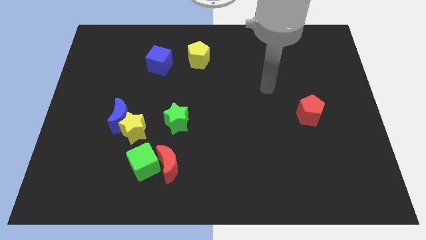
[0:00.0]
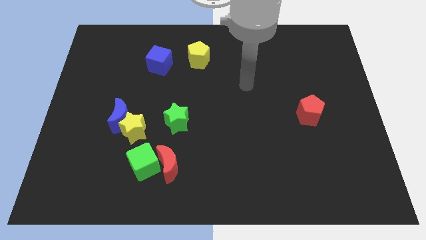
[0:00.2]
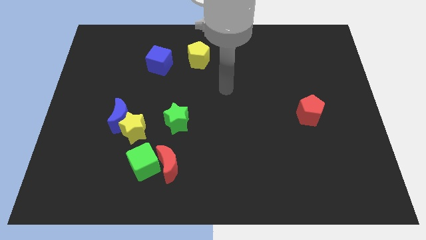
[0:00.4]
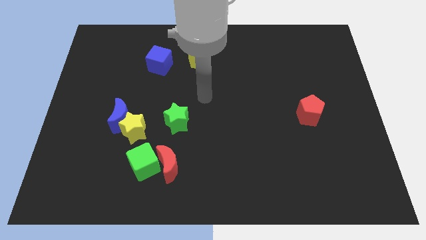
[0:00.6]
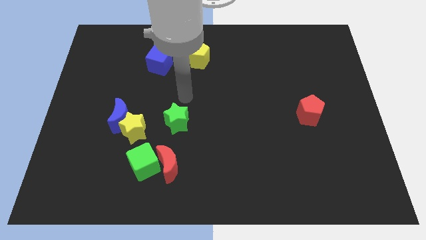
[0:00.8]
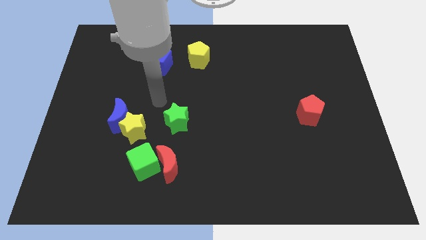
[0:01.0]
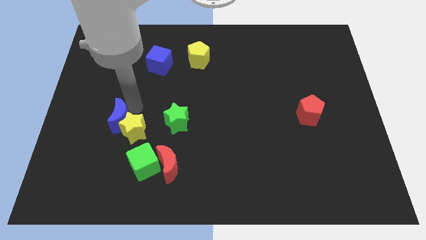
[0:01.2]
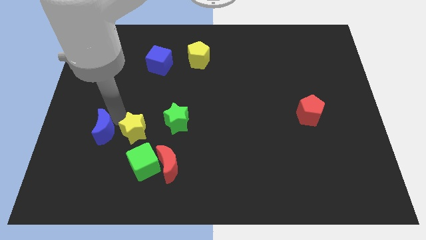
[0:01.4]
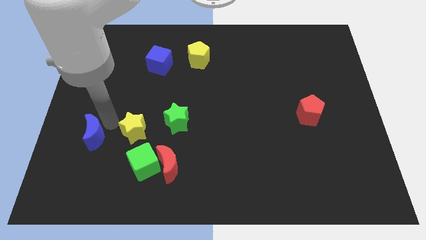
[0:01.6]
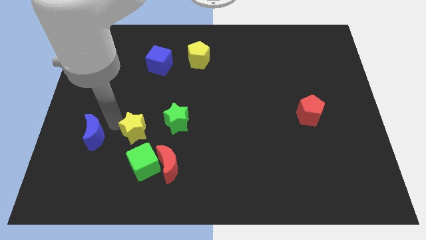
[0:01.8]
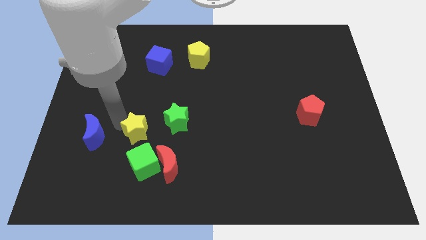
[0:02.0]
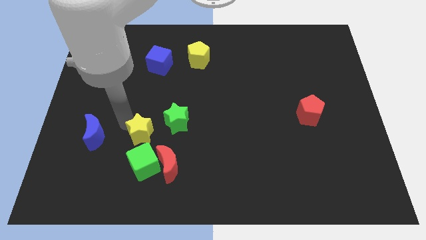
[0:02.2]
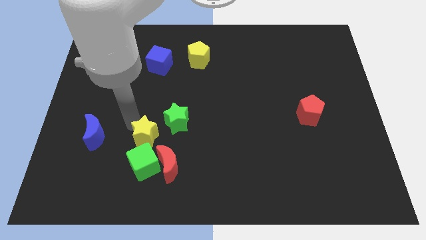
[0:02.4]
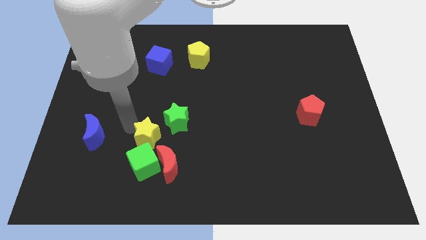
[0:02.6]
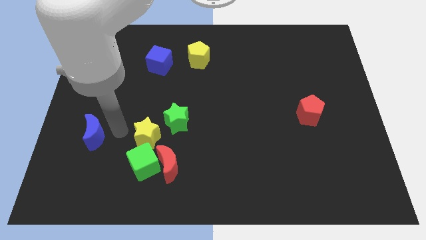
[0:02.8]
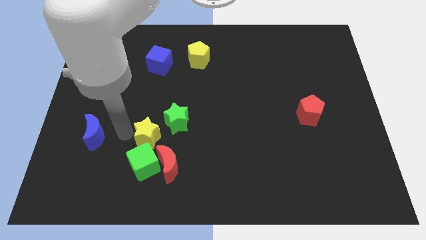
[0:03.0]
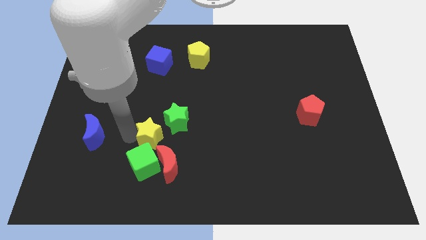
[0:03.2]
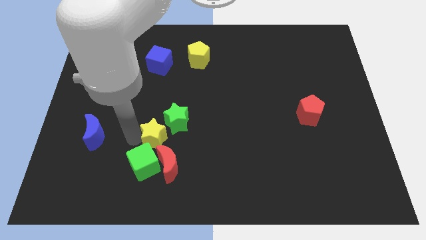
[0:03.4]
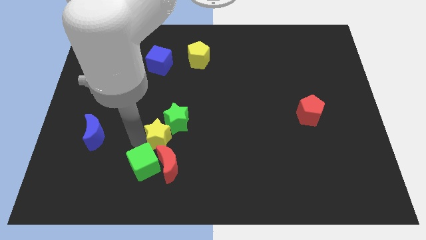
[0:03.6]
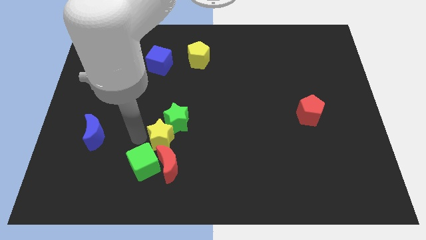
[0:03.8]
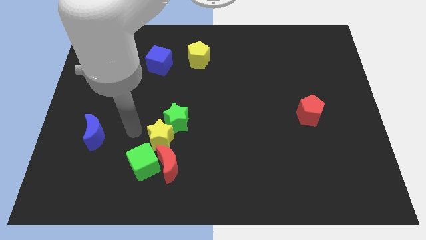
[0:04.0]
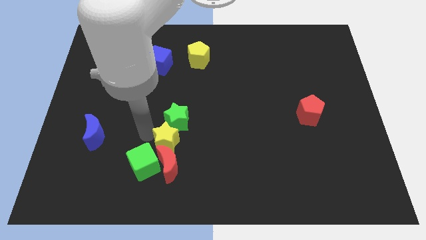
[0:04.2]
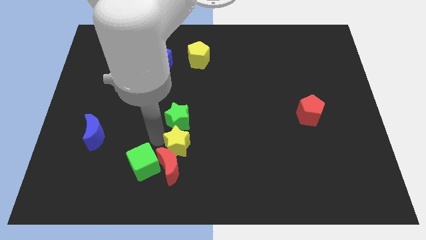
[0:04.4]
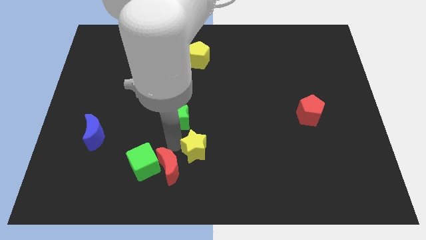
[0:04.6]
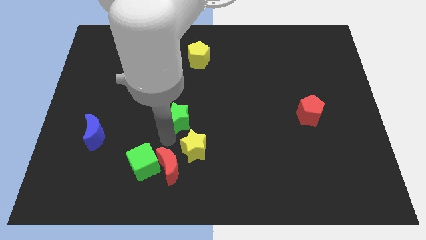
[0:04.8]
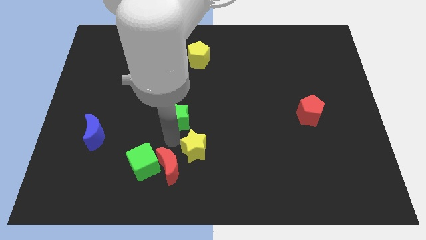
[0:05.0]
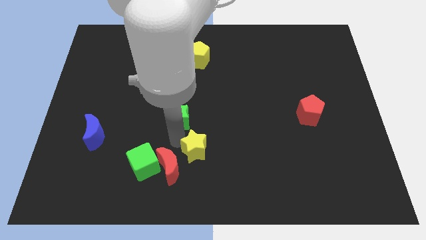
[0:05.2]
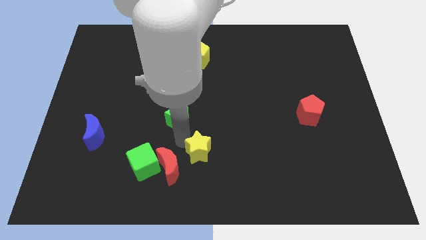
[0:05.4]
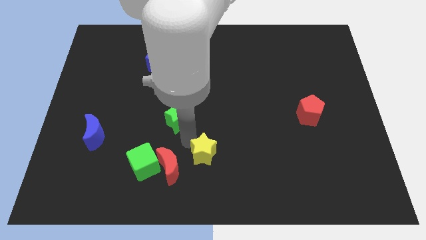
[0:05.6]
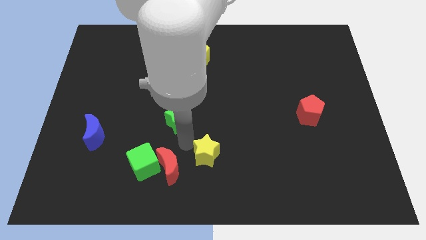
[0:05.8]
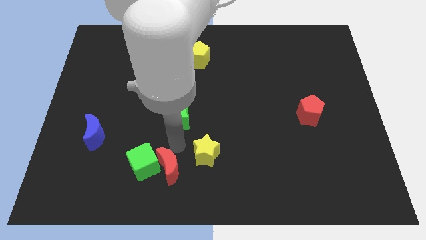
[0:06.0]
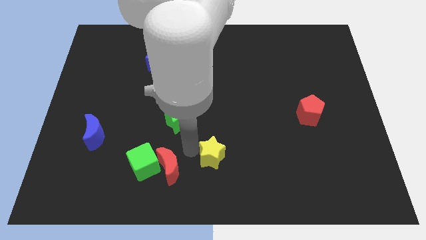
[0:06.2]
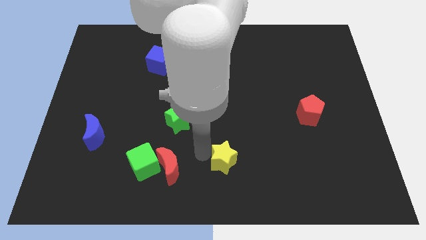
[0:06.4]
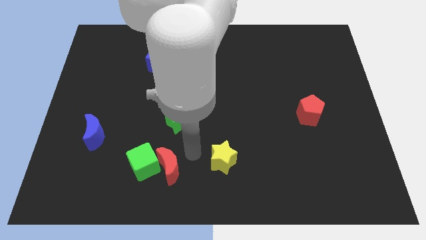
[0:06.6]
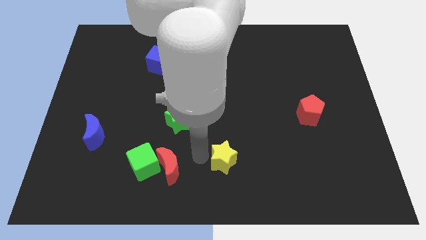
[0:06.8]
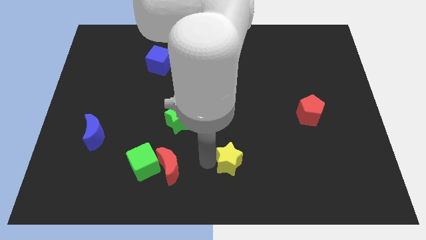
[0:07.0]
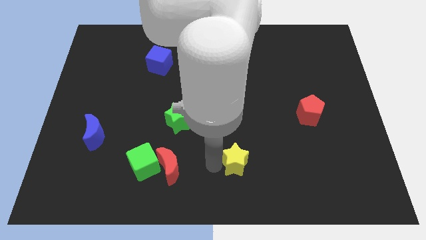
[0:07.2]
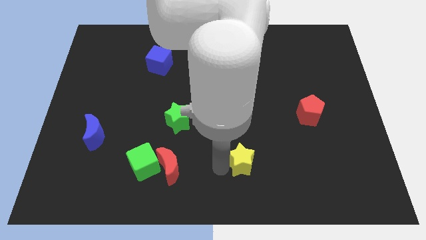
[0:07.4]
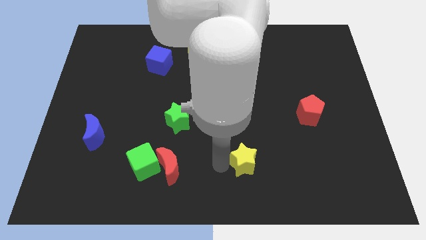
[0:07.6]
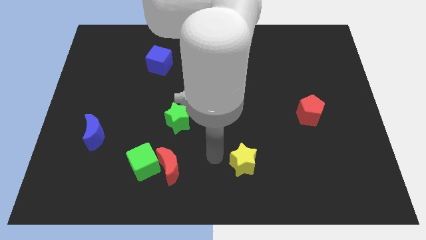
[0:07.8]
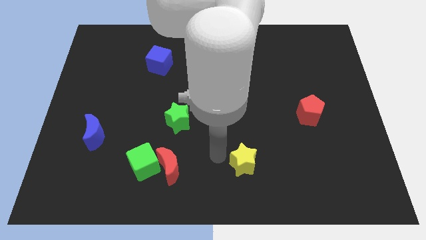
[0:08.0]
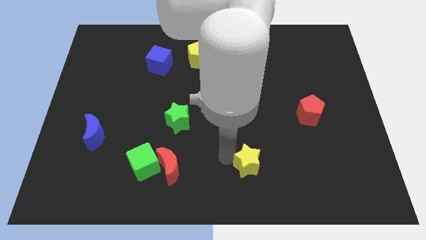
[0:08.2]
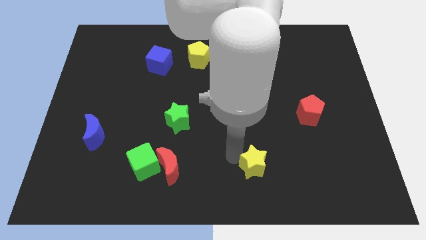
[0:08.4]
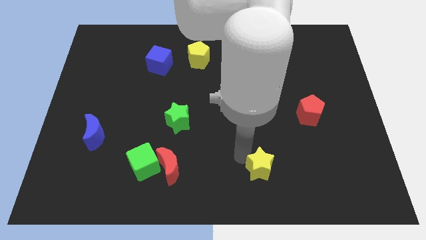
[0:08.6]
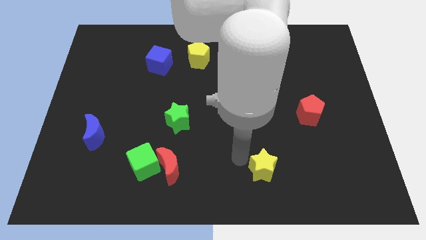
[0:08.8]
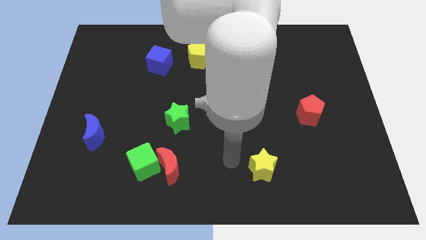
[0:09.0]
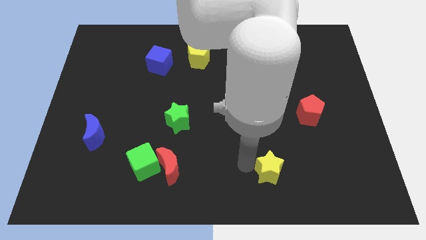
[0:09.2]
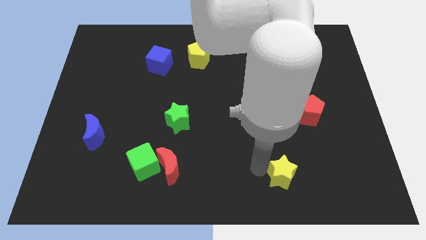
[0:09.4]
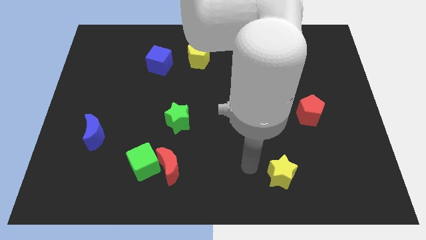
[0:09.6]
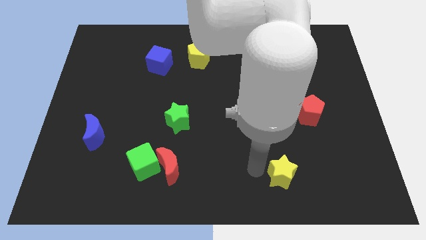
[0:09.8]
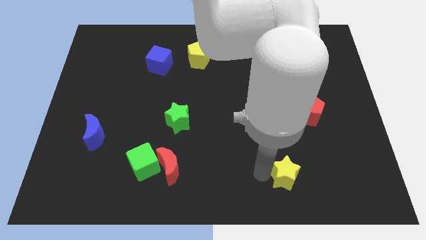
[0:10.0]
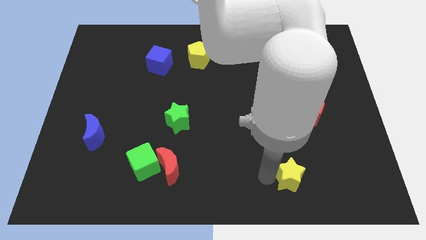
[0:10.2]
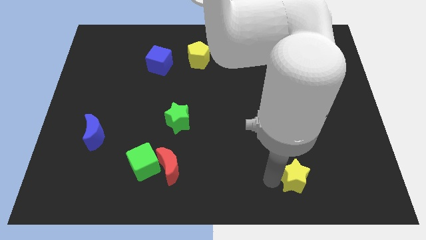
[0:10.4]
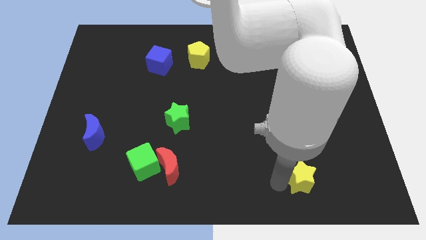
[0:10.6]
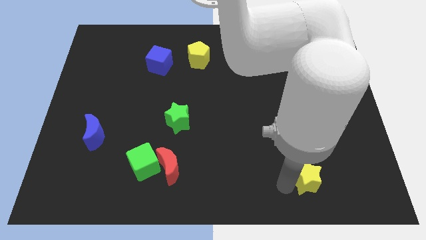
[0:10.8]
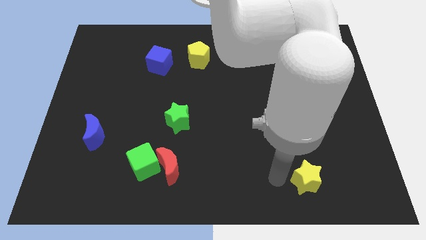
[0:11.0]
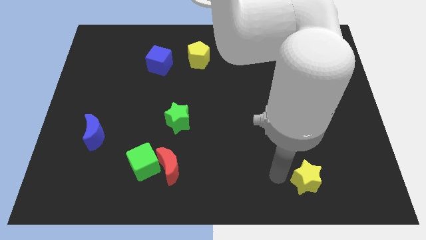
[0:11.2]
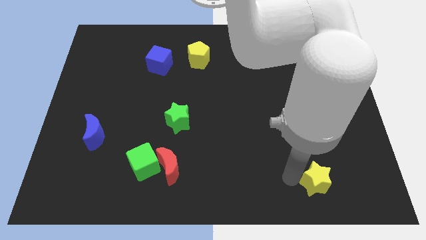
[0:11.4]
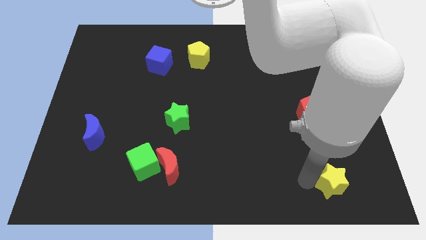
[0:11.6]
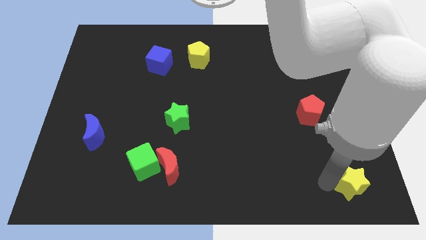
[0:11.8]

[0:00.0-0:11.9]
push the yellow star to the lower right corner

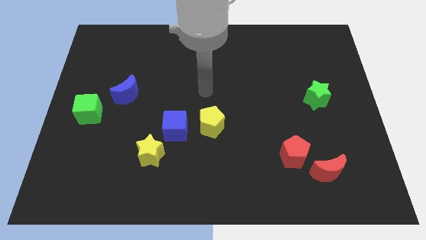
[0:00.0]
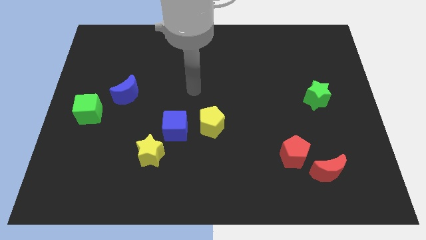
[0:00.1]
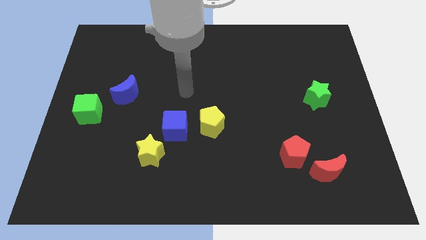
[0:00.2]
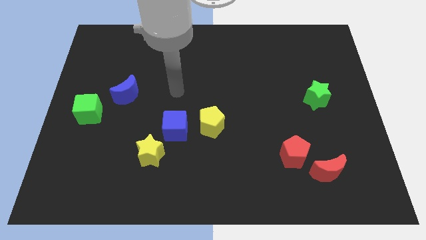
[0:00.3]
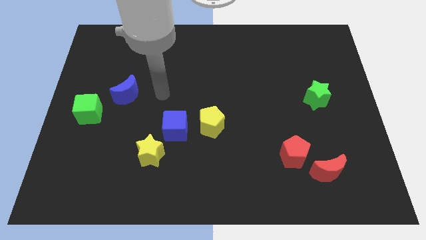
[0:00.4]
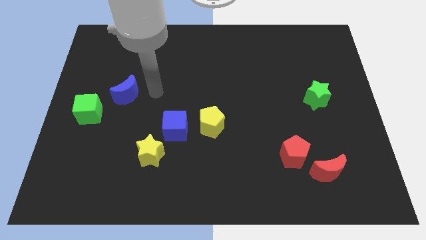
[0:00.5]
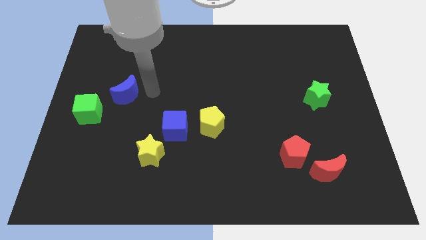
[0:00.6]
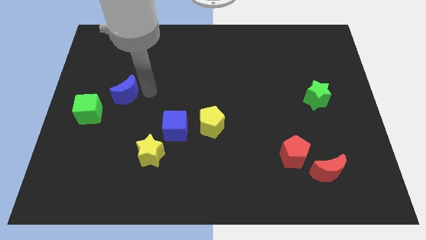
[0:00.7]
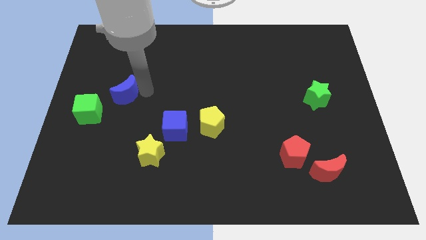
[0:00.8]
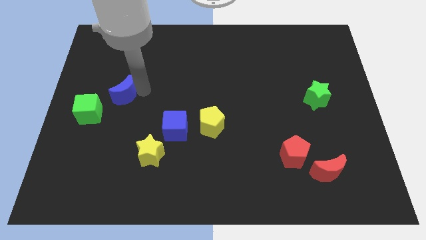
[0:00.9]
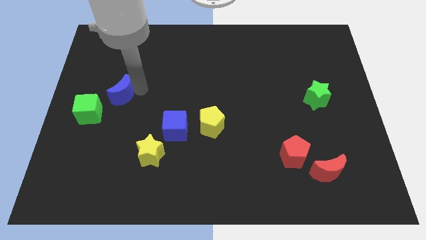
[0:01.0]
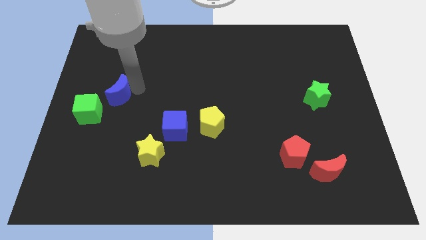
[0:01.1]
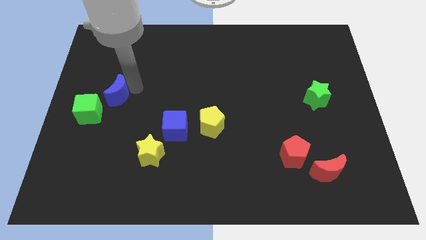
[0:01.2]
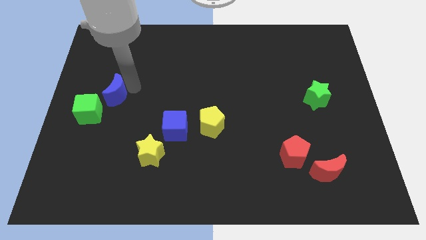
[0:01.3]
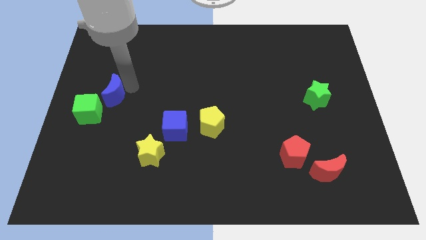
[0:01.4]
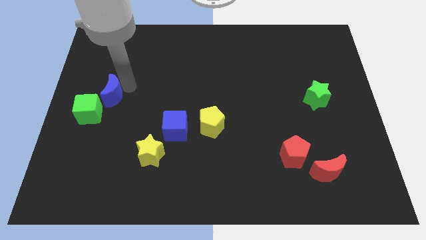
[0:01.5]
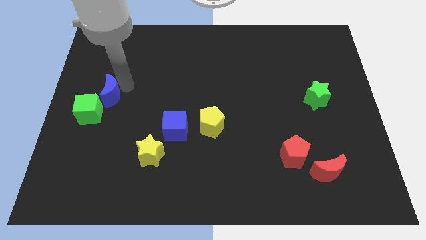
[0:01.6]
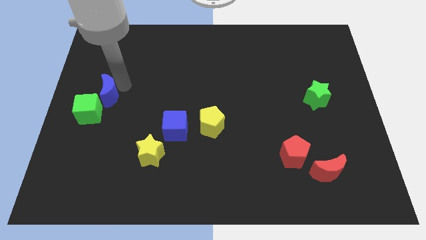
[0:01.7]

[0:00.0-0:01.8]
push the blue moon to the center left
